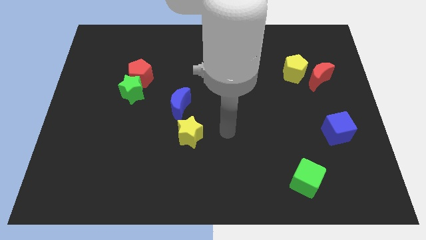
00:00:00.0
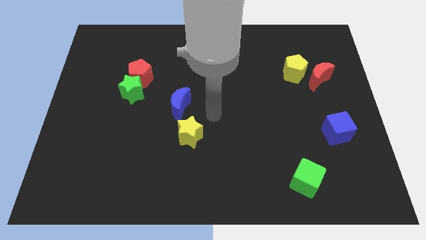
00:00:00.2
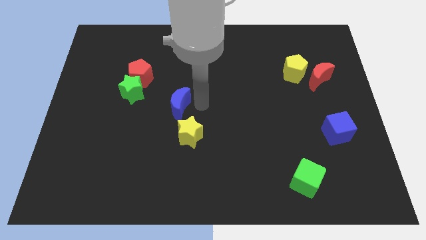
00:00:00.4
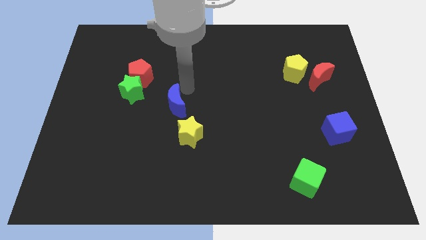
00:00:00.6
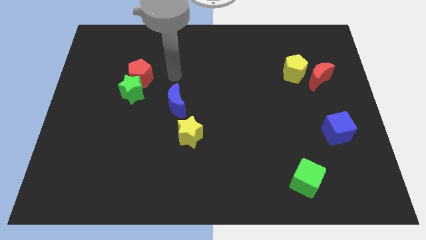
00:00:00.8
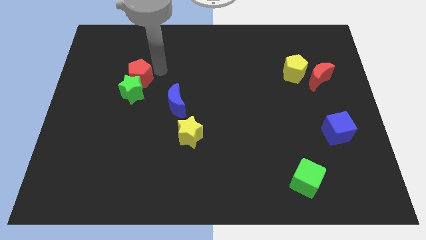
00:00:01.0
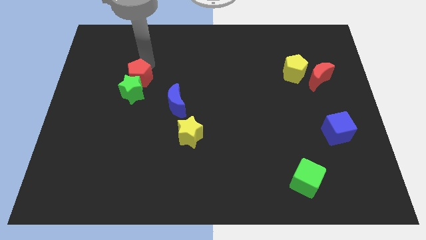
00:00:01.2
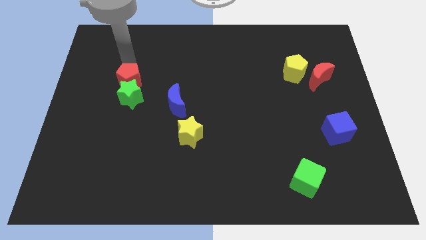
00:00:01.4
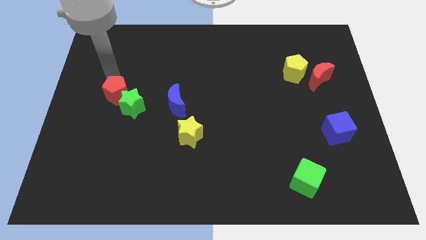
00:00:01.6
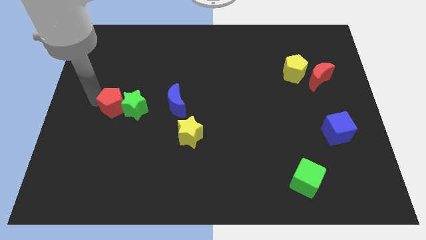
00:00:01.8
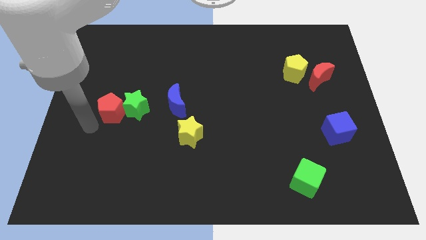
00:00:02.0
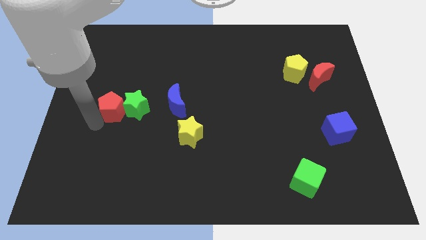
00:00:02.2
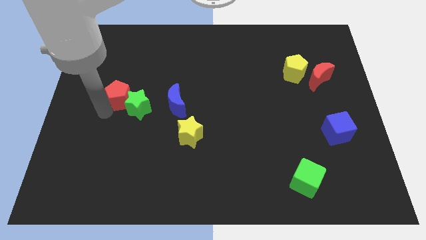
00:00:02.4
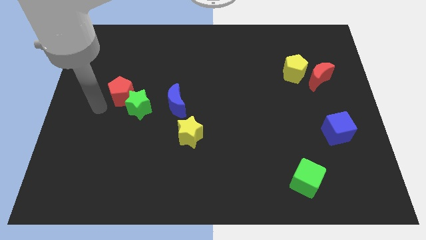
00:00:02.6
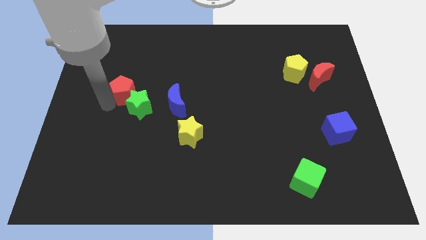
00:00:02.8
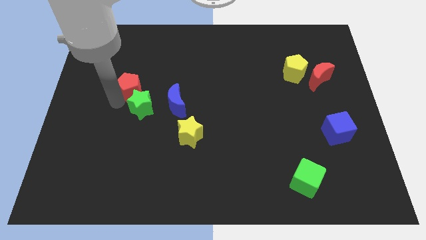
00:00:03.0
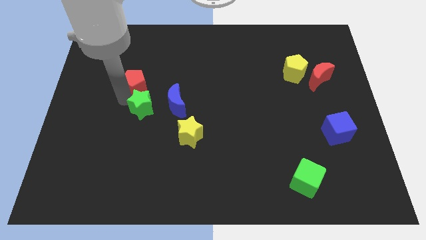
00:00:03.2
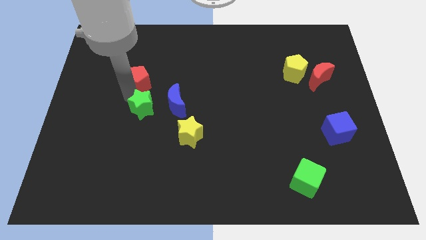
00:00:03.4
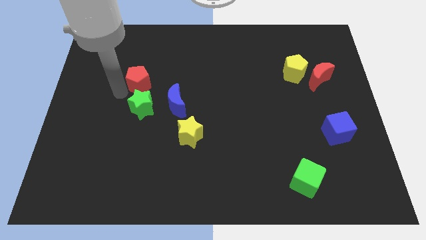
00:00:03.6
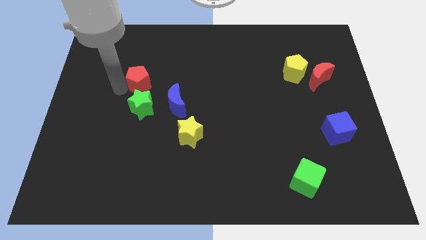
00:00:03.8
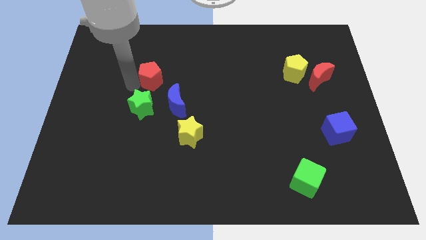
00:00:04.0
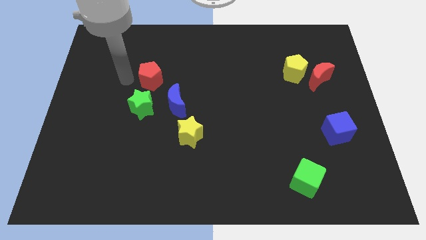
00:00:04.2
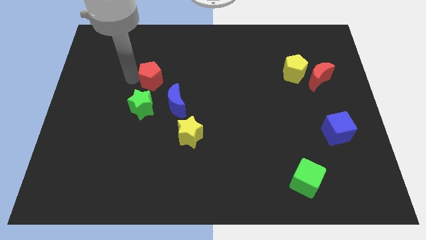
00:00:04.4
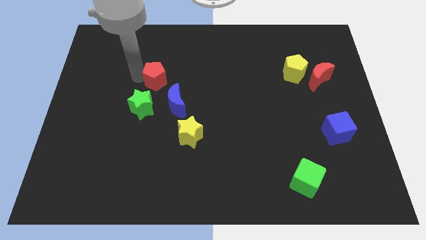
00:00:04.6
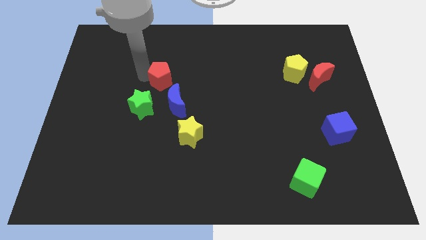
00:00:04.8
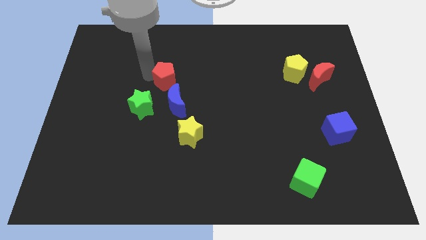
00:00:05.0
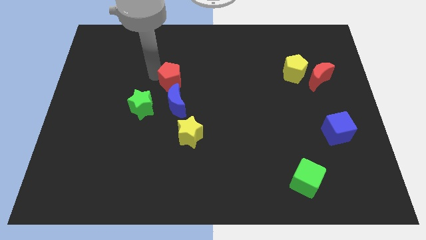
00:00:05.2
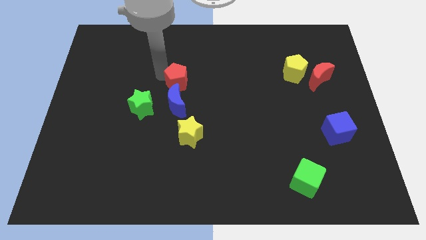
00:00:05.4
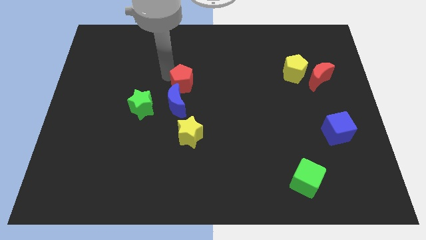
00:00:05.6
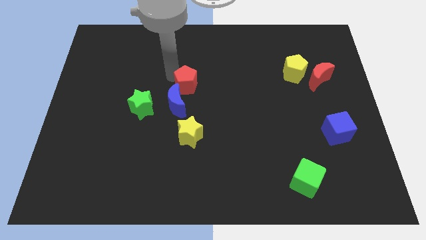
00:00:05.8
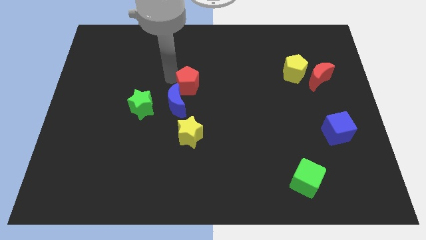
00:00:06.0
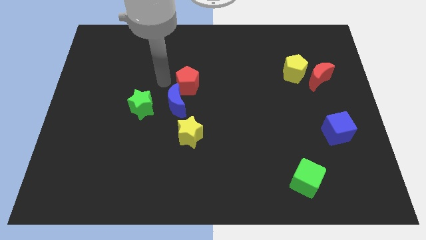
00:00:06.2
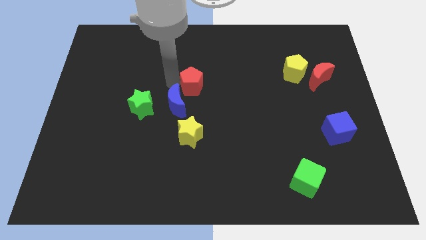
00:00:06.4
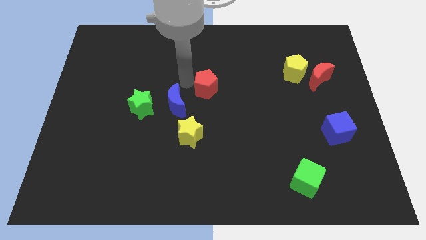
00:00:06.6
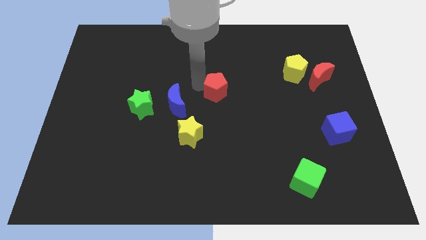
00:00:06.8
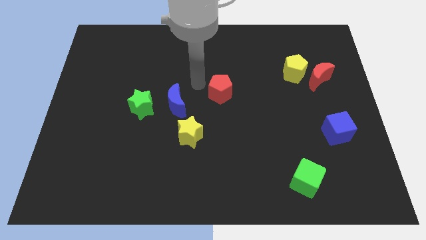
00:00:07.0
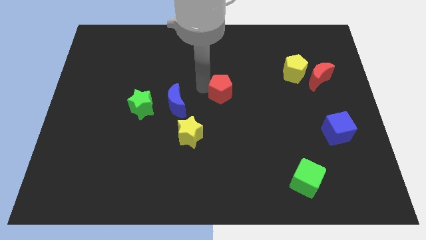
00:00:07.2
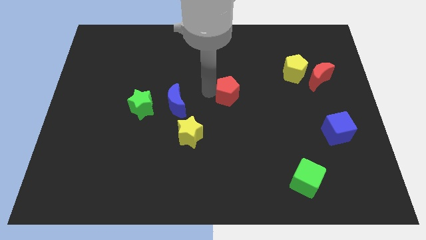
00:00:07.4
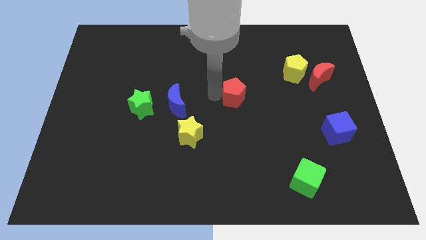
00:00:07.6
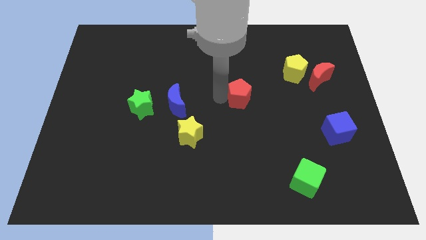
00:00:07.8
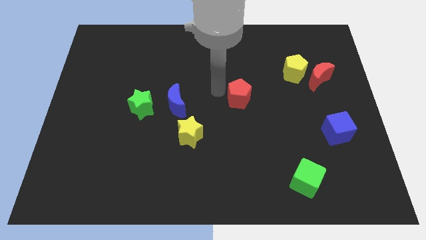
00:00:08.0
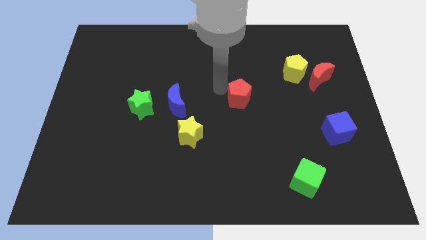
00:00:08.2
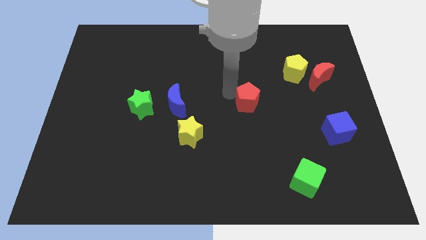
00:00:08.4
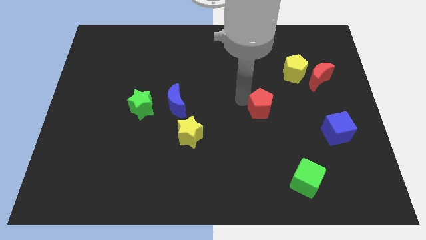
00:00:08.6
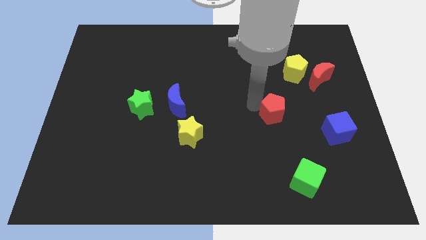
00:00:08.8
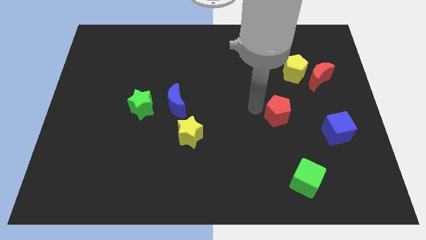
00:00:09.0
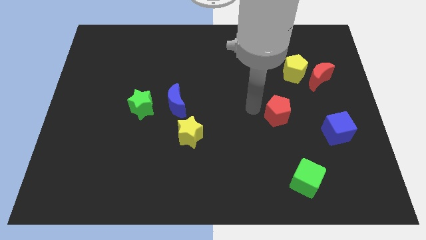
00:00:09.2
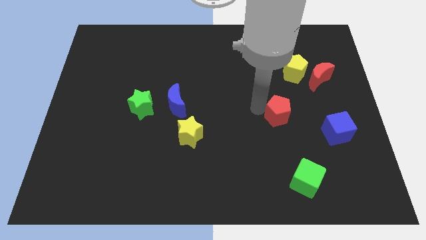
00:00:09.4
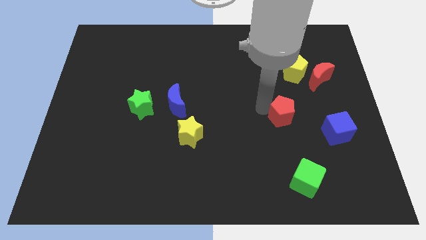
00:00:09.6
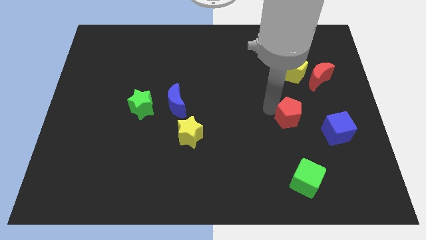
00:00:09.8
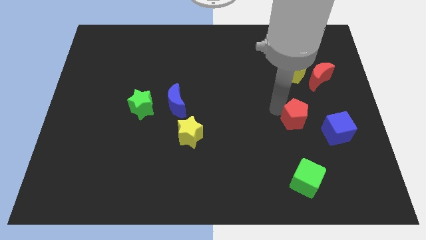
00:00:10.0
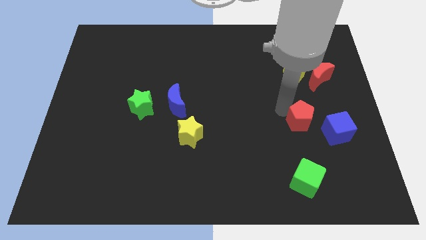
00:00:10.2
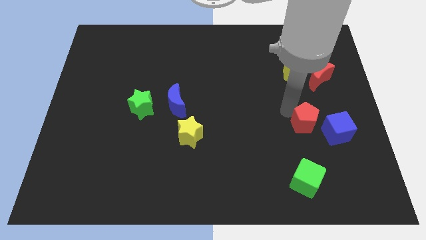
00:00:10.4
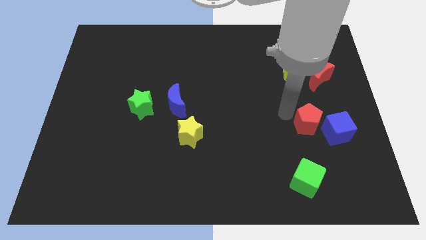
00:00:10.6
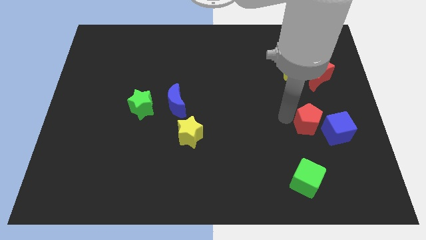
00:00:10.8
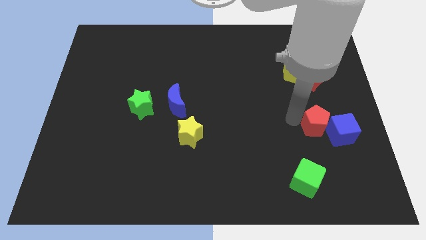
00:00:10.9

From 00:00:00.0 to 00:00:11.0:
push the red pentagon to the blue cube

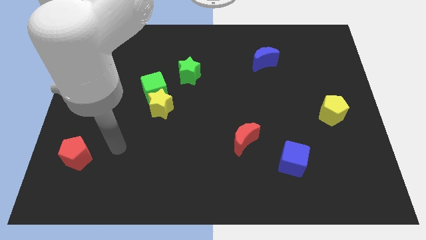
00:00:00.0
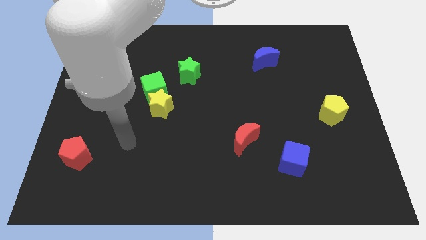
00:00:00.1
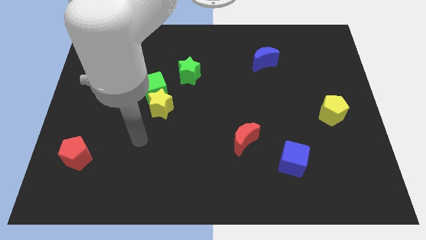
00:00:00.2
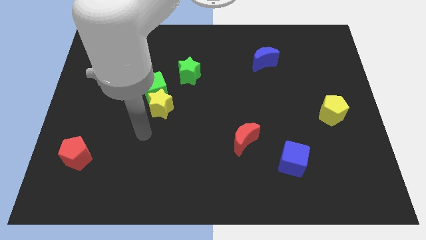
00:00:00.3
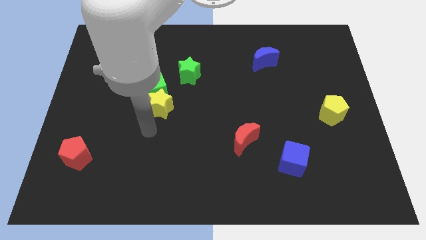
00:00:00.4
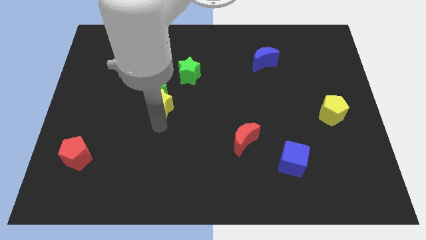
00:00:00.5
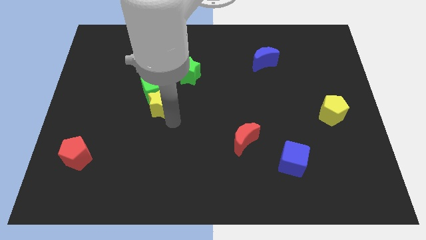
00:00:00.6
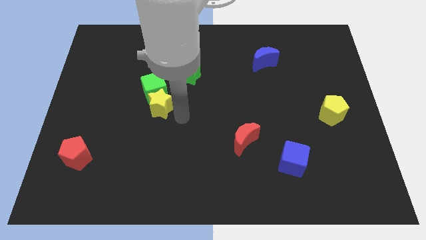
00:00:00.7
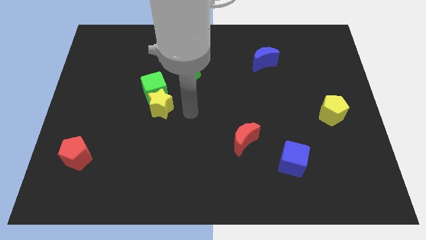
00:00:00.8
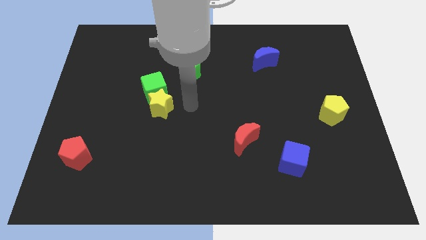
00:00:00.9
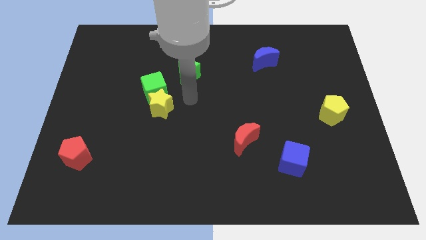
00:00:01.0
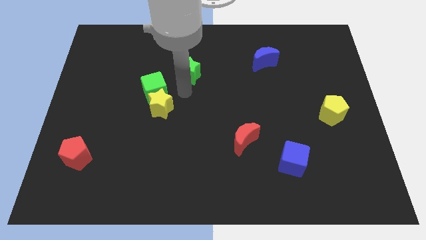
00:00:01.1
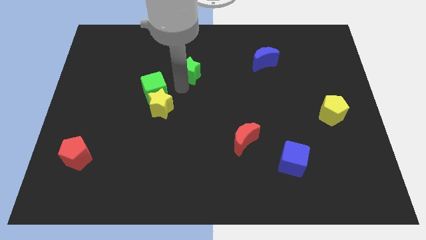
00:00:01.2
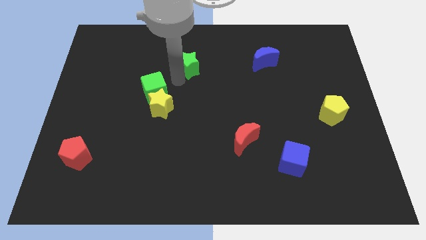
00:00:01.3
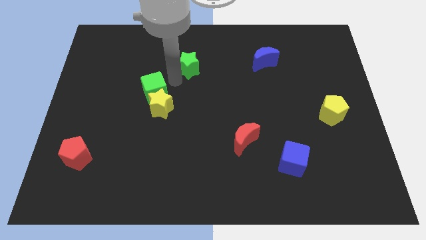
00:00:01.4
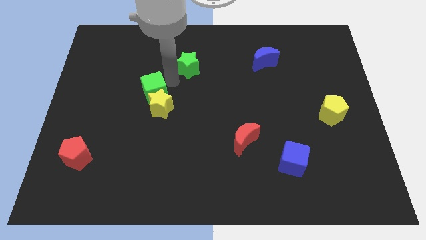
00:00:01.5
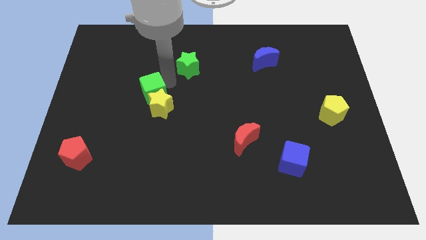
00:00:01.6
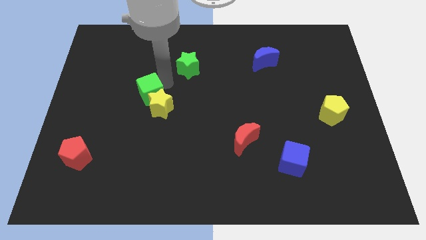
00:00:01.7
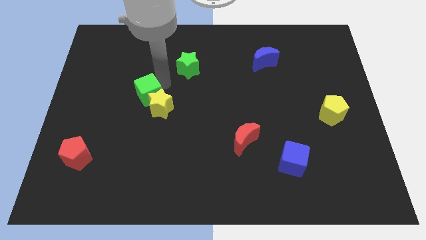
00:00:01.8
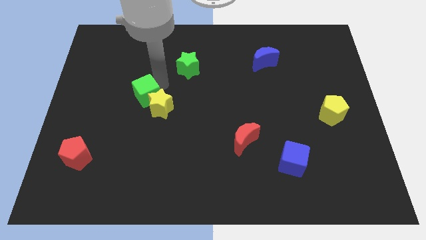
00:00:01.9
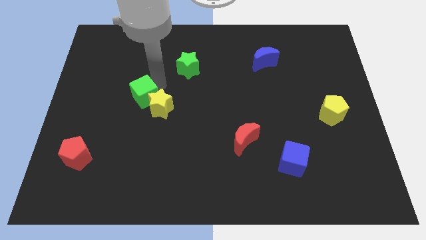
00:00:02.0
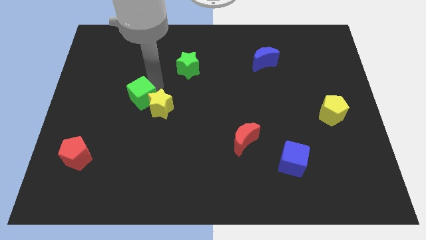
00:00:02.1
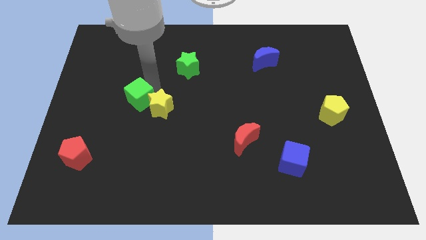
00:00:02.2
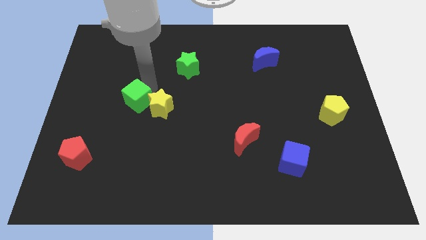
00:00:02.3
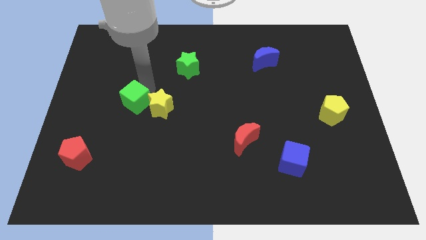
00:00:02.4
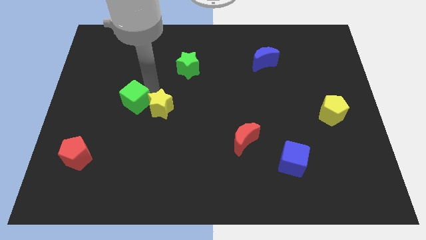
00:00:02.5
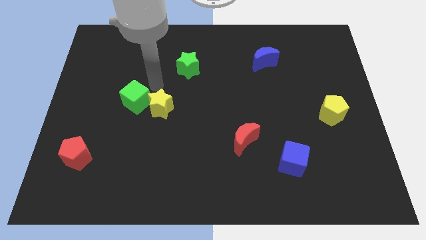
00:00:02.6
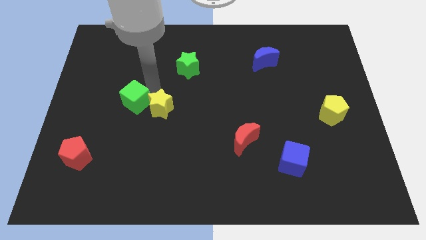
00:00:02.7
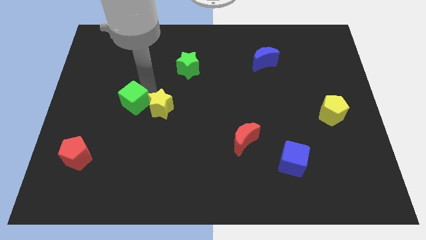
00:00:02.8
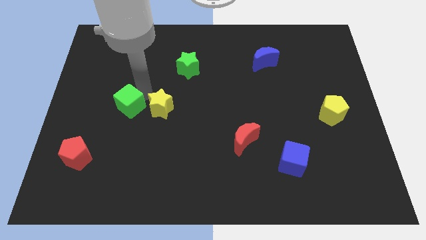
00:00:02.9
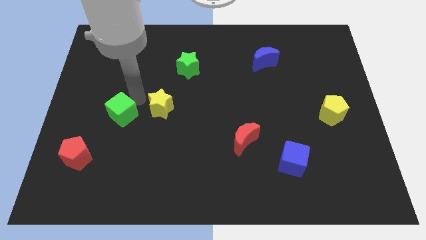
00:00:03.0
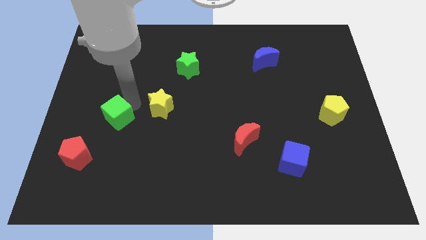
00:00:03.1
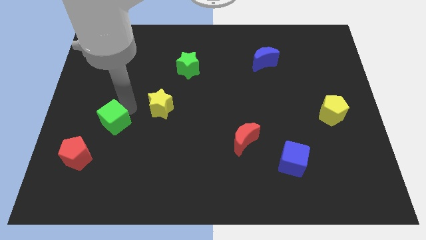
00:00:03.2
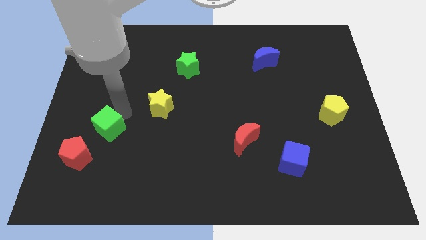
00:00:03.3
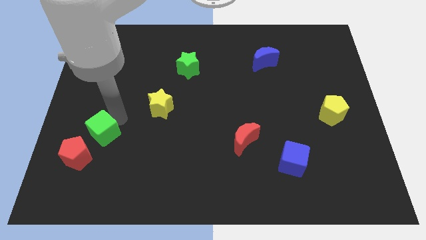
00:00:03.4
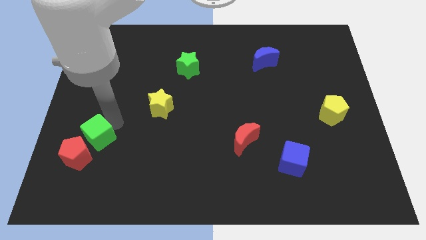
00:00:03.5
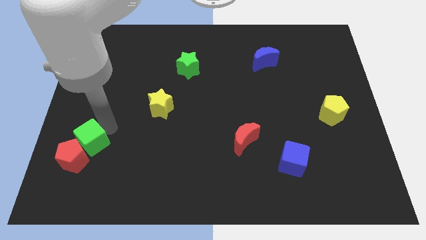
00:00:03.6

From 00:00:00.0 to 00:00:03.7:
move the green cube towards the red pentagon
